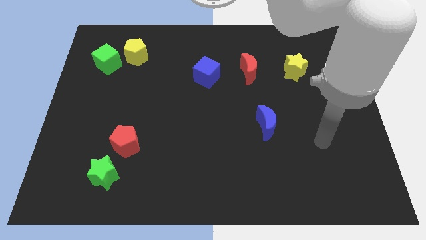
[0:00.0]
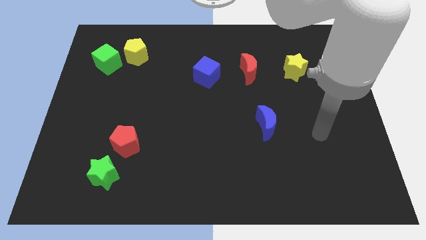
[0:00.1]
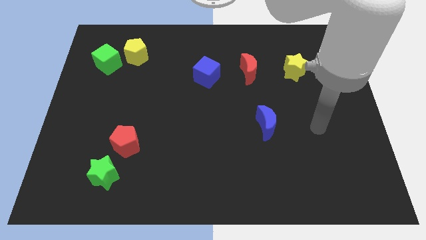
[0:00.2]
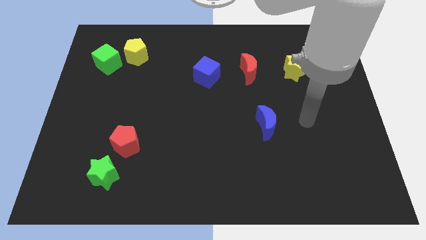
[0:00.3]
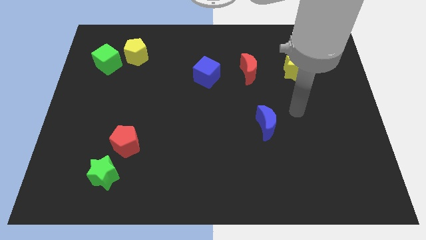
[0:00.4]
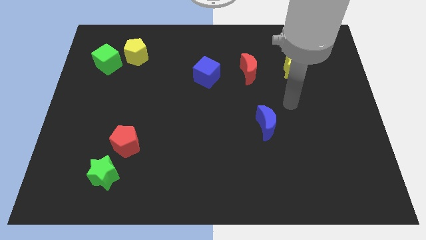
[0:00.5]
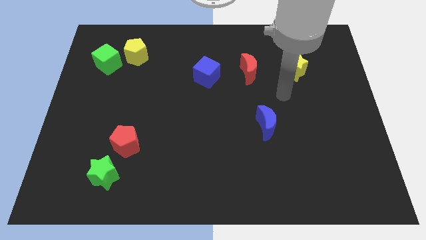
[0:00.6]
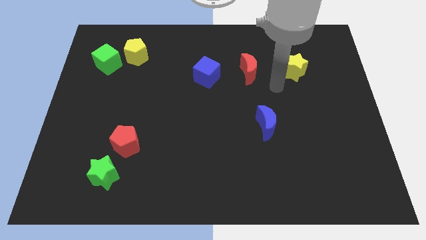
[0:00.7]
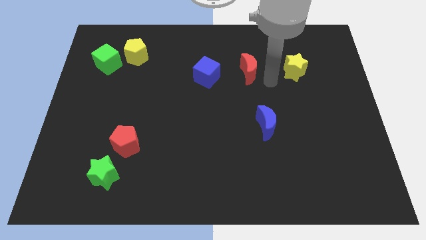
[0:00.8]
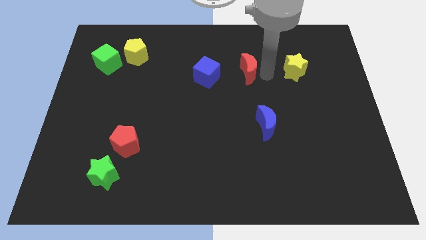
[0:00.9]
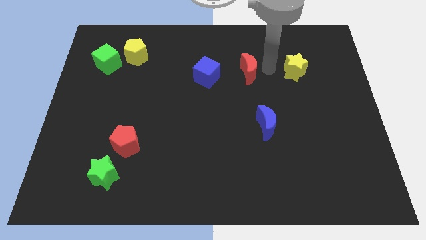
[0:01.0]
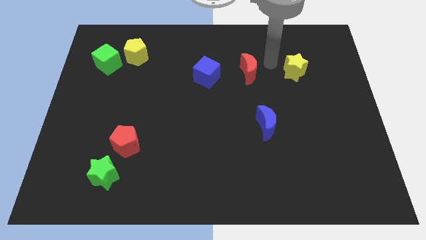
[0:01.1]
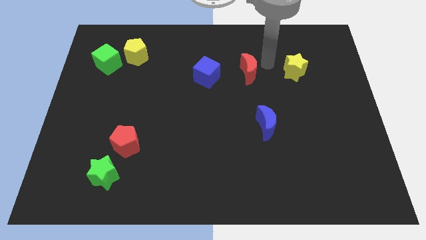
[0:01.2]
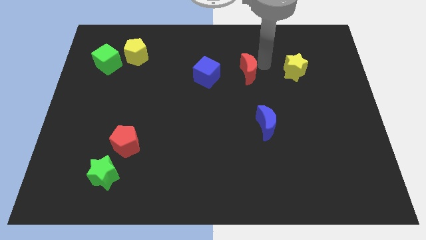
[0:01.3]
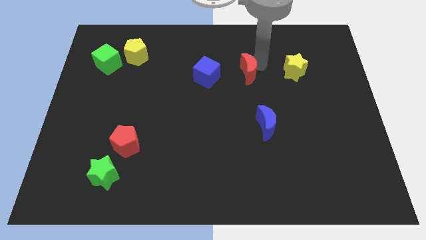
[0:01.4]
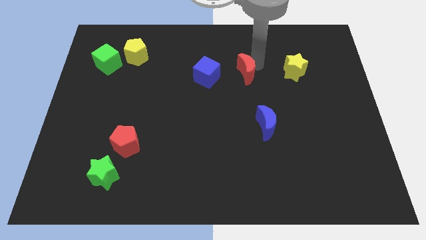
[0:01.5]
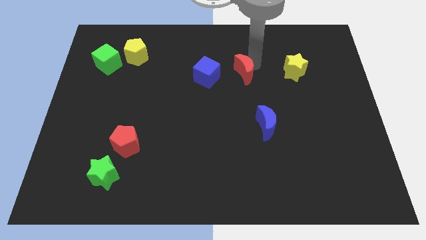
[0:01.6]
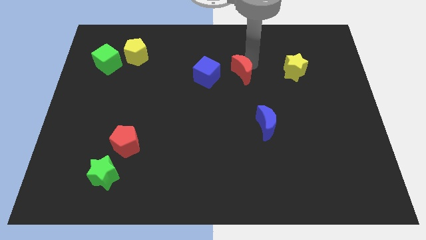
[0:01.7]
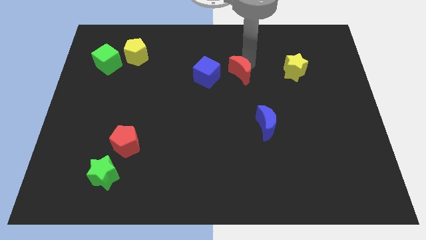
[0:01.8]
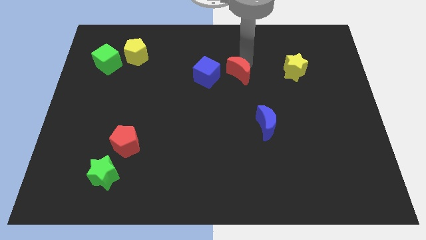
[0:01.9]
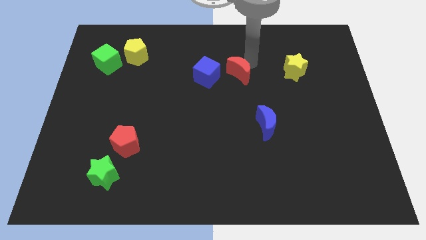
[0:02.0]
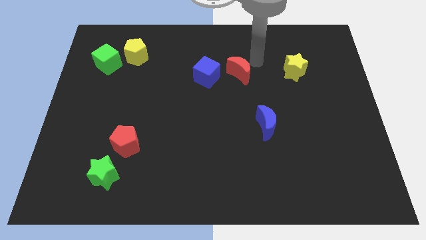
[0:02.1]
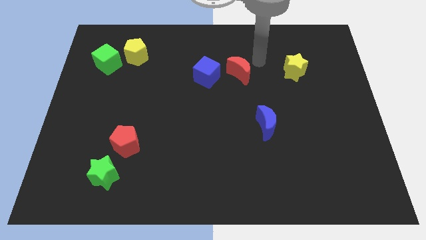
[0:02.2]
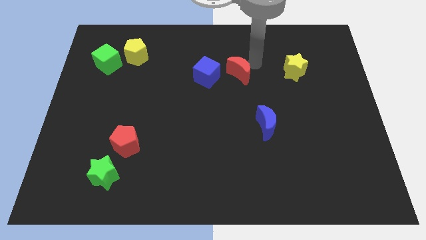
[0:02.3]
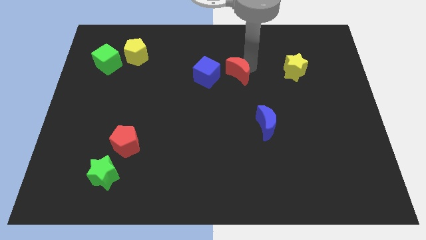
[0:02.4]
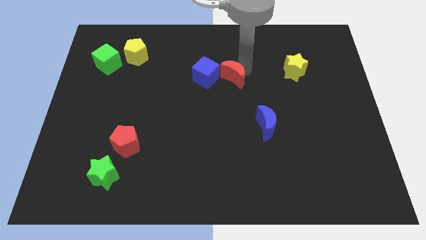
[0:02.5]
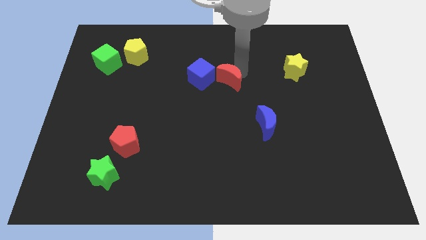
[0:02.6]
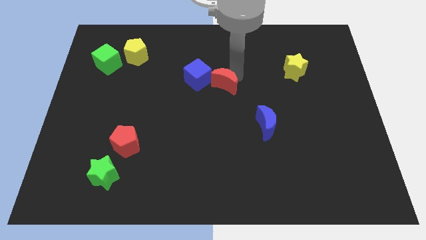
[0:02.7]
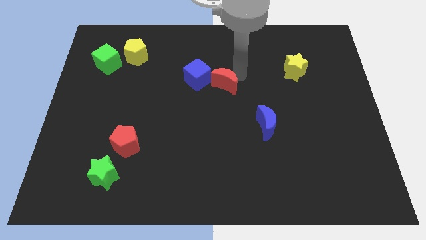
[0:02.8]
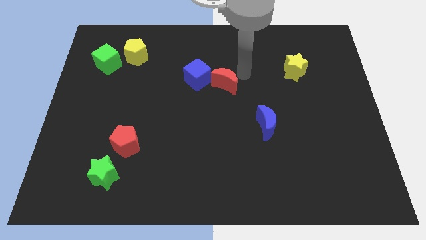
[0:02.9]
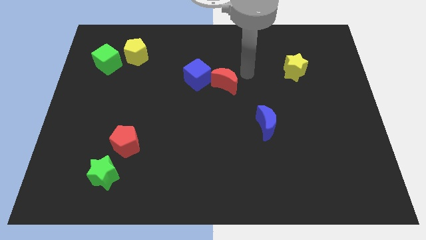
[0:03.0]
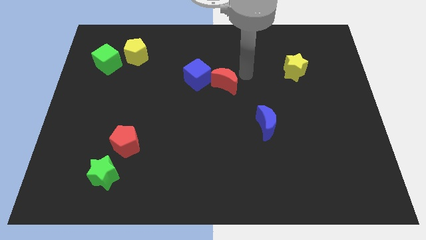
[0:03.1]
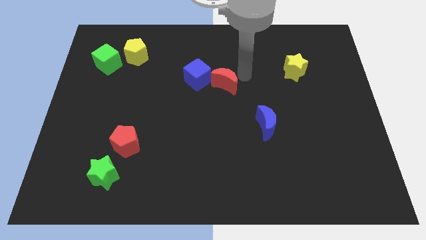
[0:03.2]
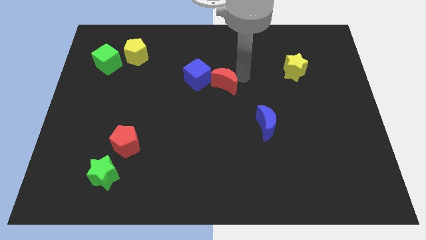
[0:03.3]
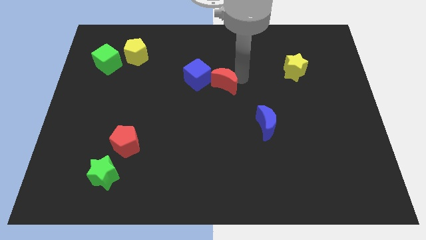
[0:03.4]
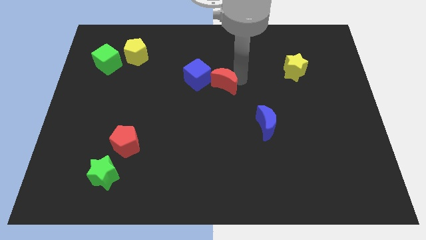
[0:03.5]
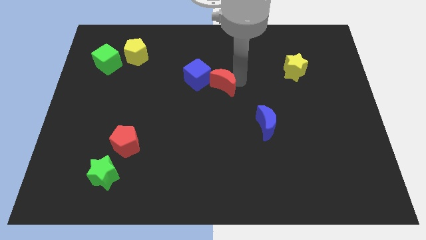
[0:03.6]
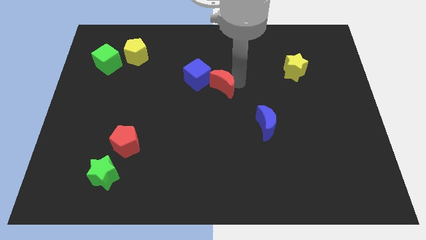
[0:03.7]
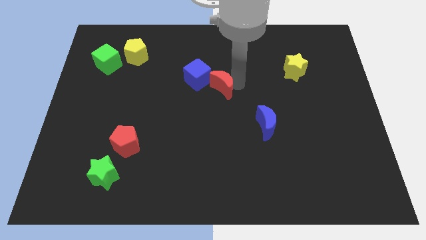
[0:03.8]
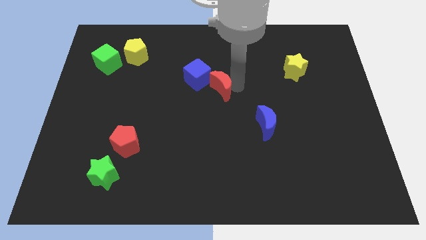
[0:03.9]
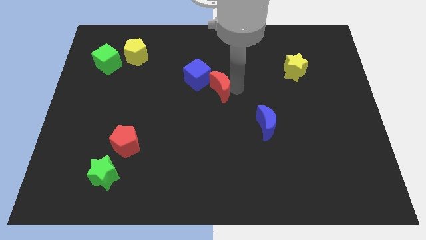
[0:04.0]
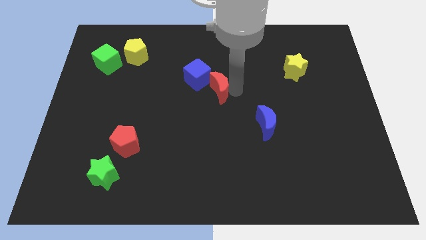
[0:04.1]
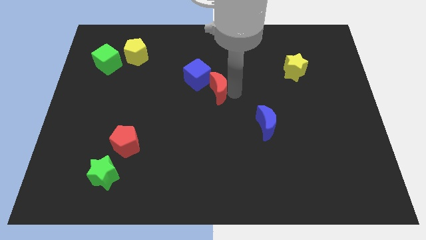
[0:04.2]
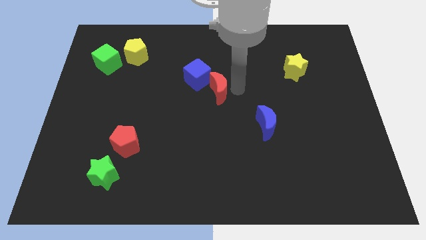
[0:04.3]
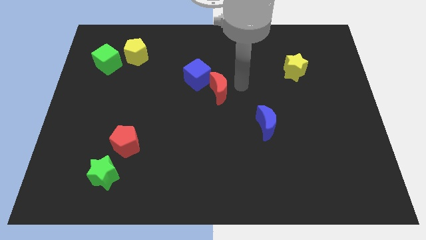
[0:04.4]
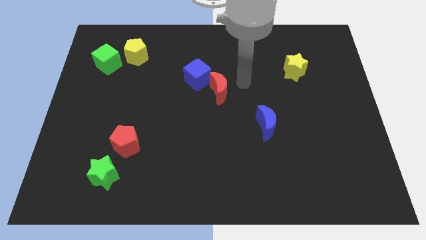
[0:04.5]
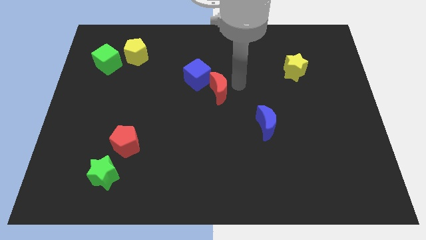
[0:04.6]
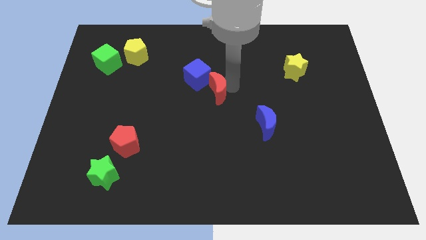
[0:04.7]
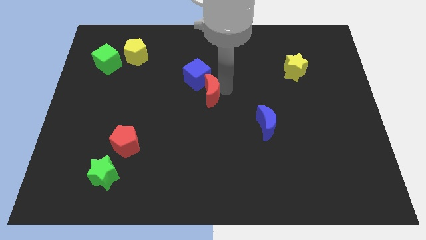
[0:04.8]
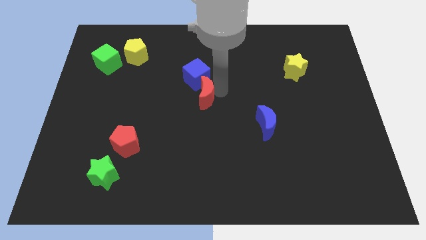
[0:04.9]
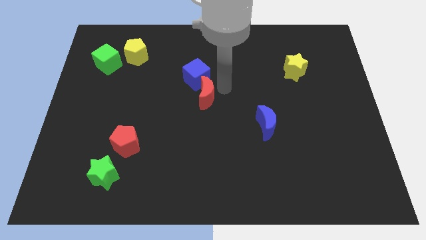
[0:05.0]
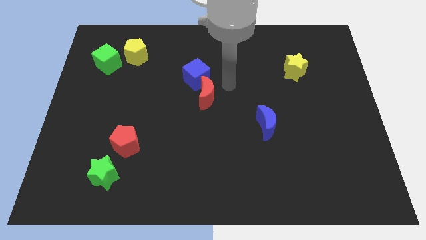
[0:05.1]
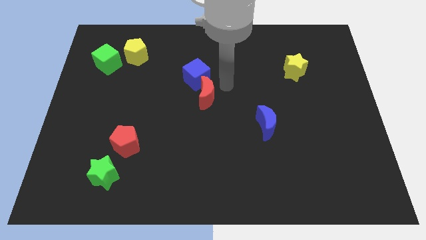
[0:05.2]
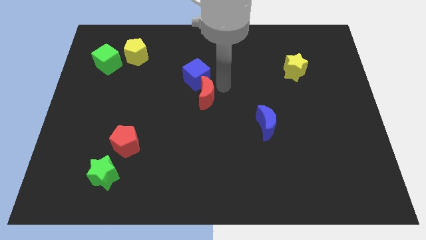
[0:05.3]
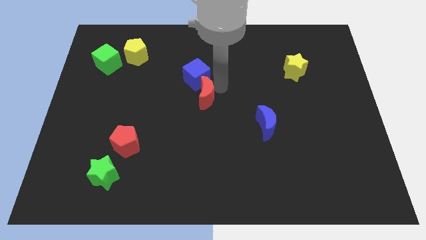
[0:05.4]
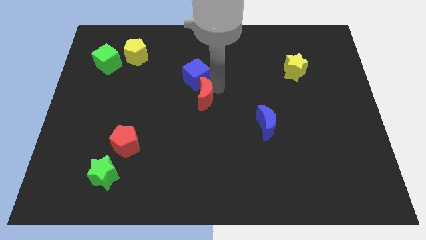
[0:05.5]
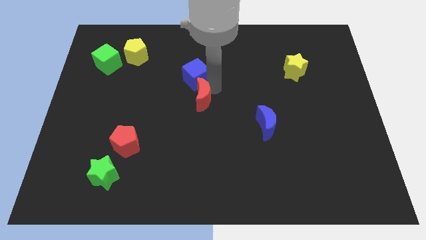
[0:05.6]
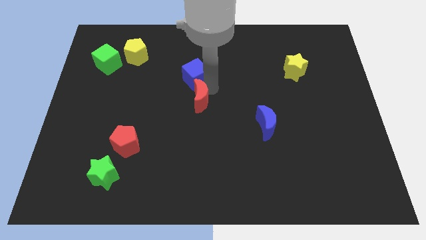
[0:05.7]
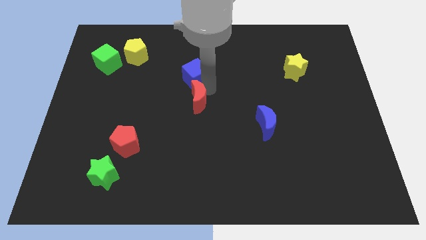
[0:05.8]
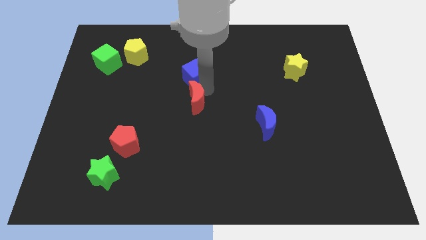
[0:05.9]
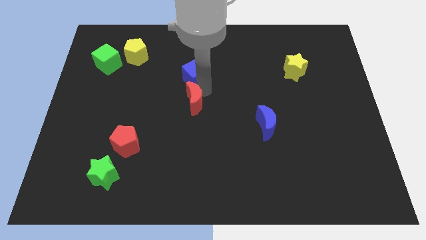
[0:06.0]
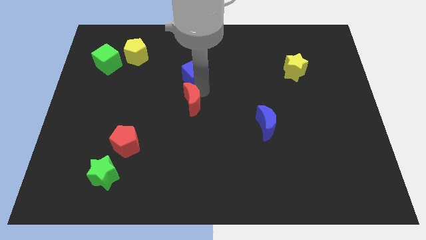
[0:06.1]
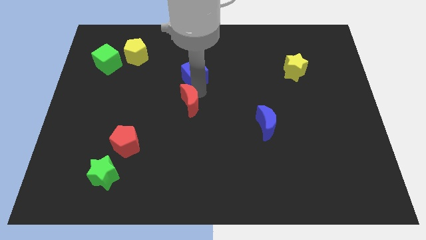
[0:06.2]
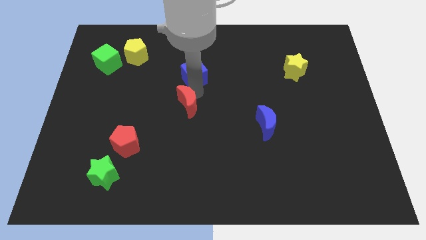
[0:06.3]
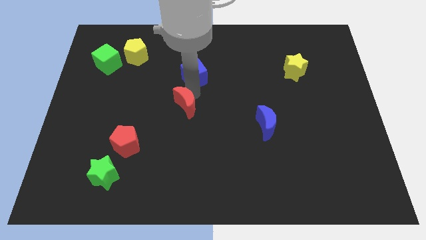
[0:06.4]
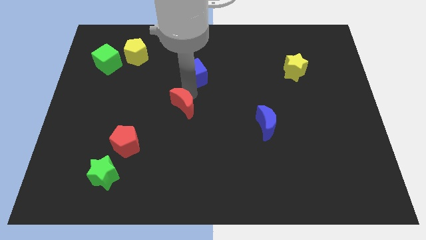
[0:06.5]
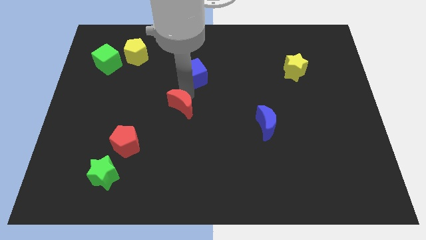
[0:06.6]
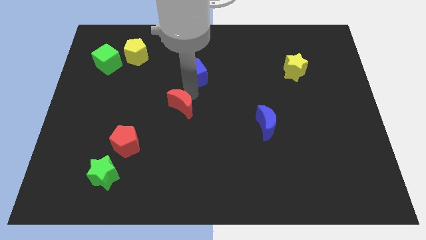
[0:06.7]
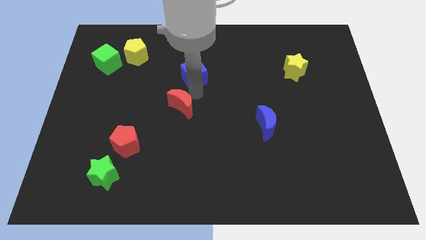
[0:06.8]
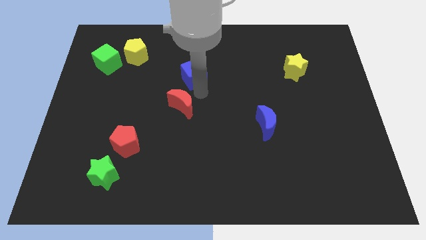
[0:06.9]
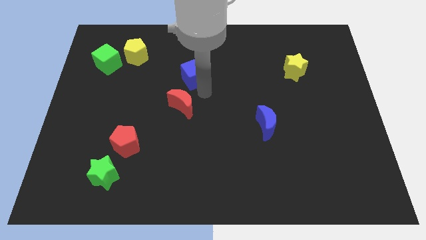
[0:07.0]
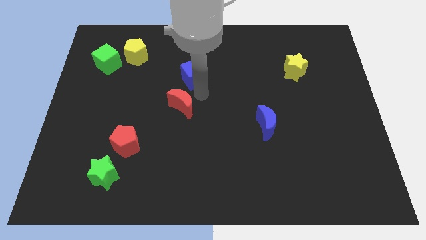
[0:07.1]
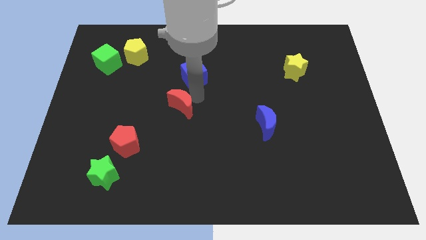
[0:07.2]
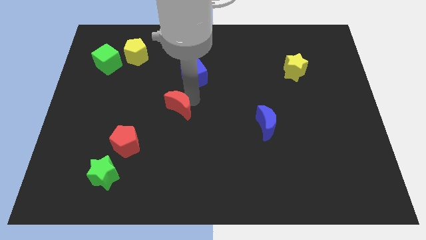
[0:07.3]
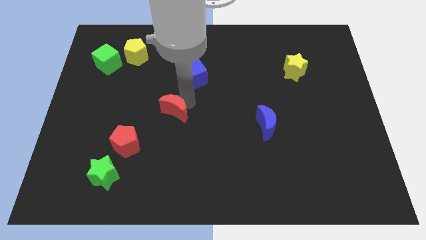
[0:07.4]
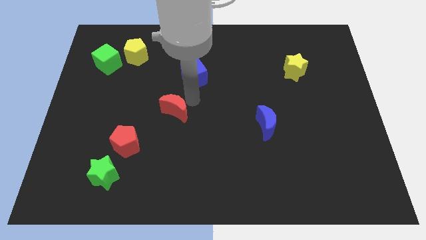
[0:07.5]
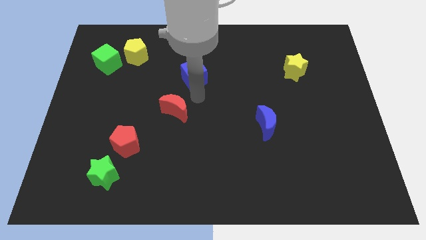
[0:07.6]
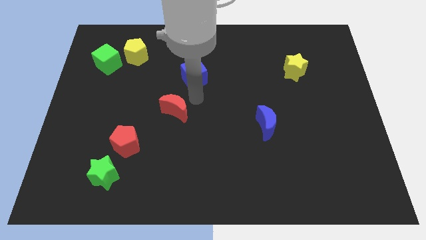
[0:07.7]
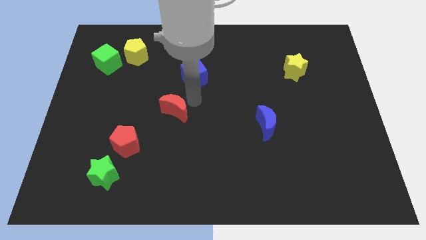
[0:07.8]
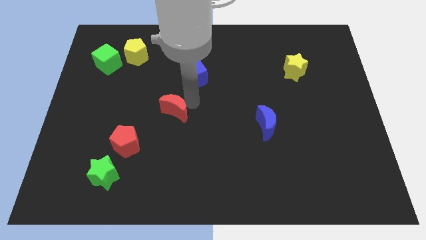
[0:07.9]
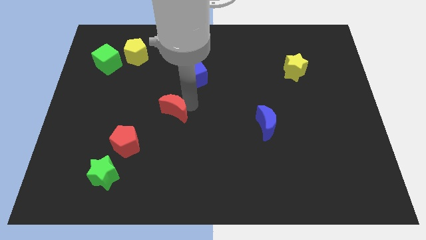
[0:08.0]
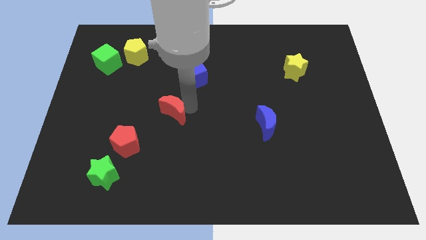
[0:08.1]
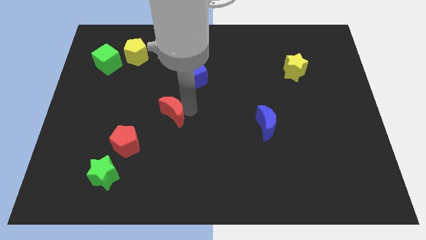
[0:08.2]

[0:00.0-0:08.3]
put the red moon to the top right side of the red pentagon
